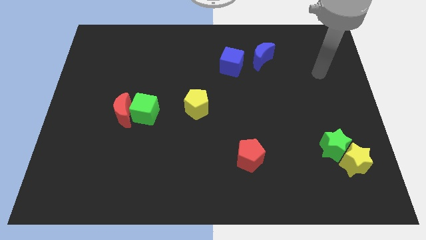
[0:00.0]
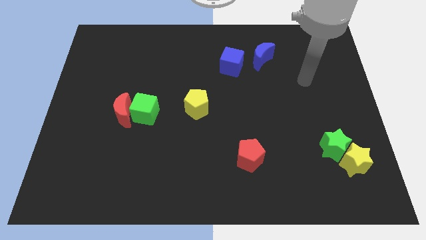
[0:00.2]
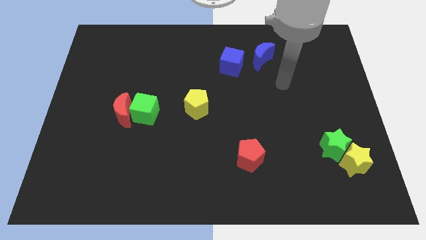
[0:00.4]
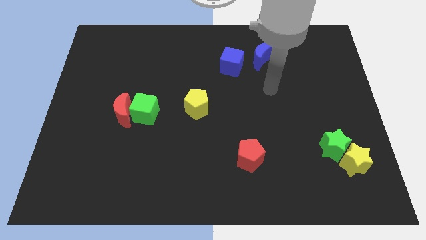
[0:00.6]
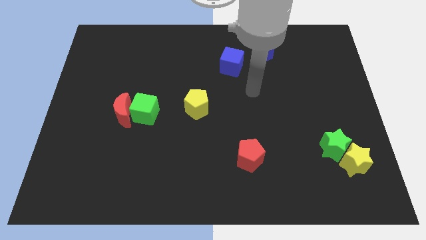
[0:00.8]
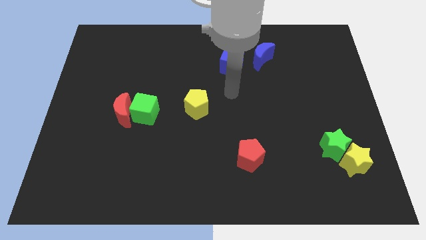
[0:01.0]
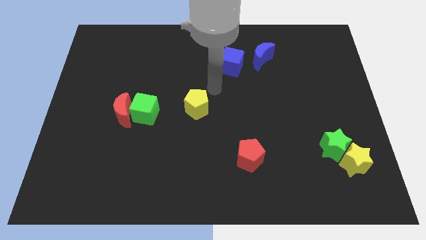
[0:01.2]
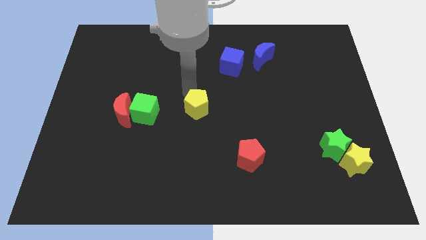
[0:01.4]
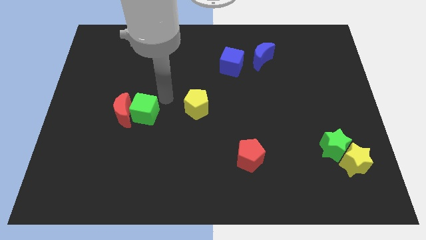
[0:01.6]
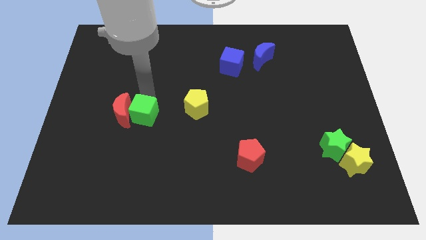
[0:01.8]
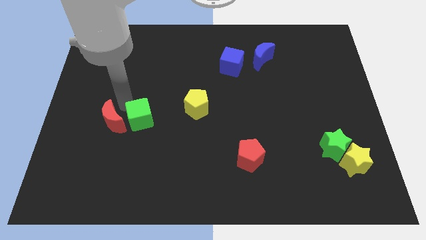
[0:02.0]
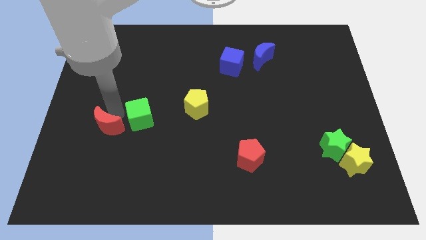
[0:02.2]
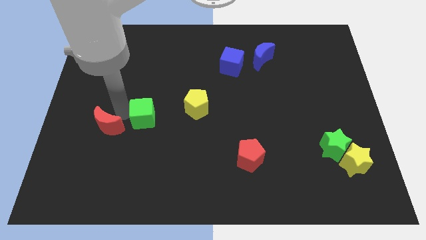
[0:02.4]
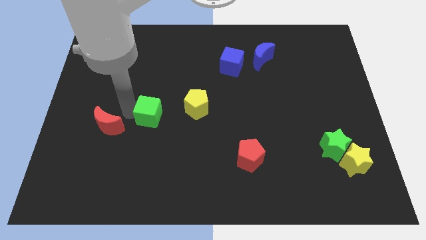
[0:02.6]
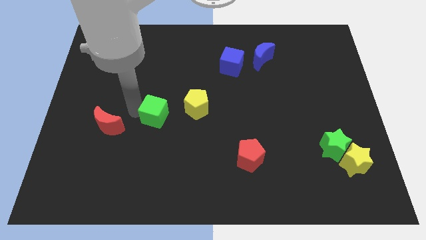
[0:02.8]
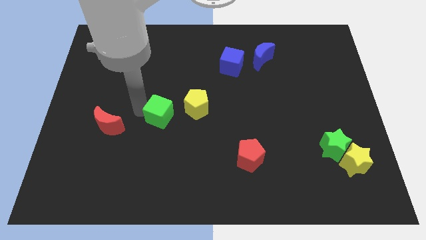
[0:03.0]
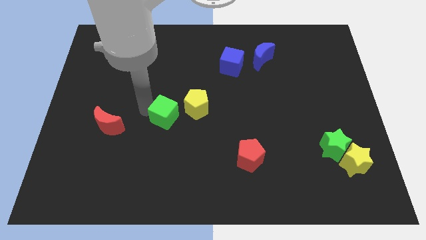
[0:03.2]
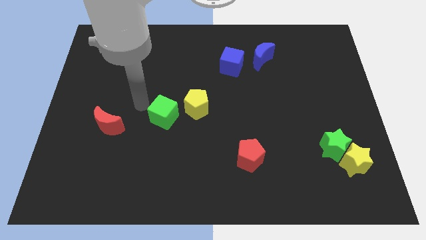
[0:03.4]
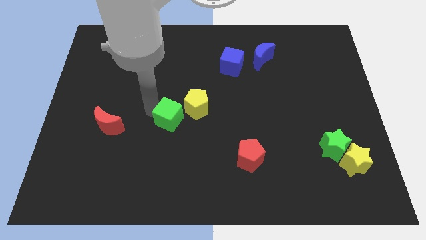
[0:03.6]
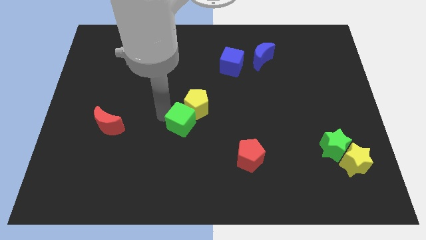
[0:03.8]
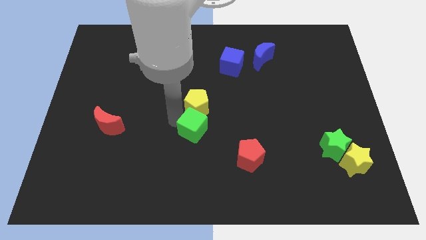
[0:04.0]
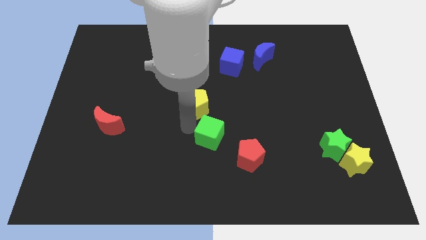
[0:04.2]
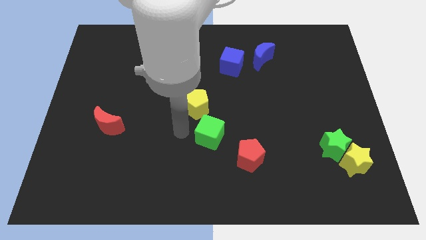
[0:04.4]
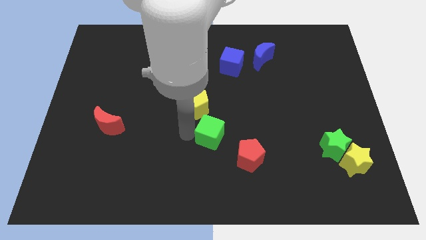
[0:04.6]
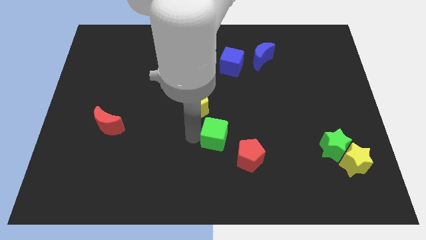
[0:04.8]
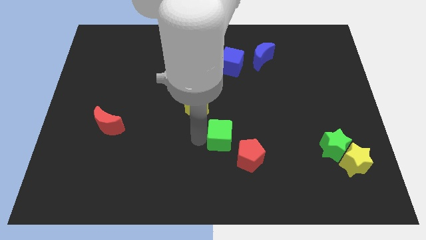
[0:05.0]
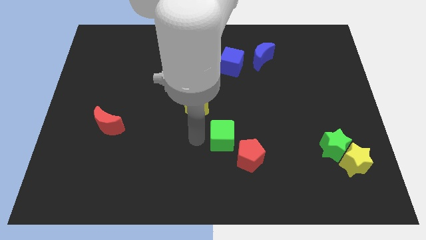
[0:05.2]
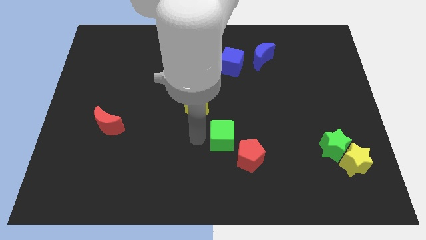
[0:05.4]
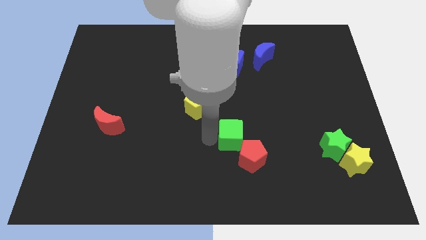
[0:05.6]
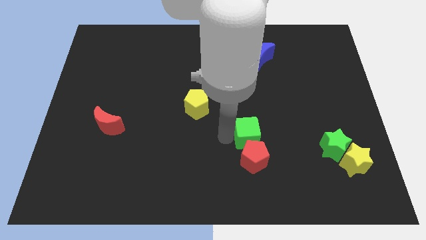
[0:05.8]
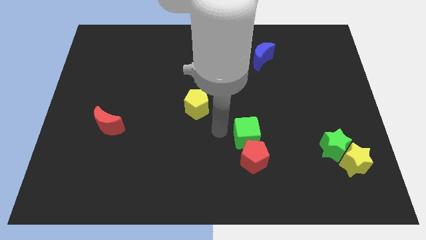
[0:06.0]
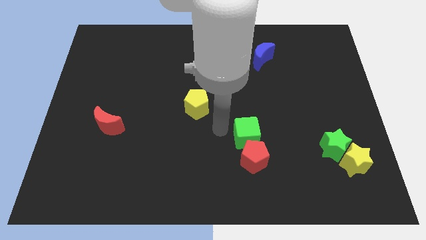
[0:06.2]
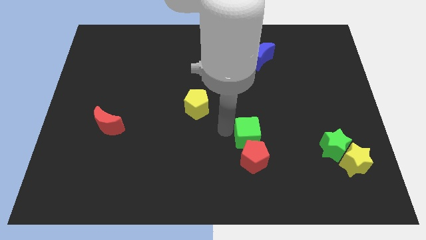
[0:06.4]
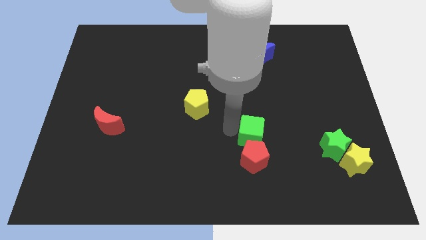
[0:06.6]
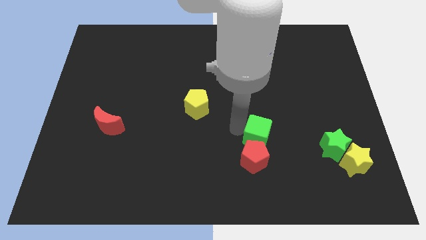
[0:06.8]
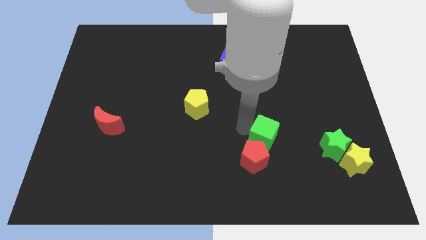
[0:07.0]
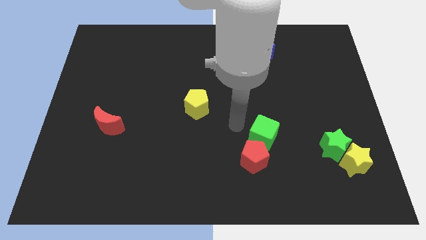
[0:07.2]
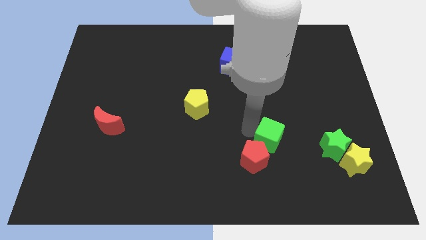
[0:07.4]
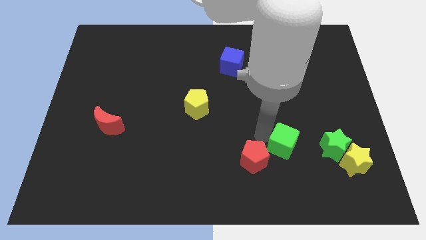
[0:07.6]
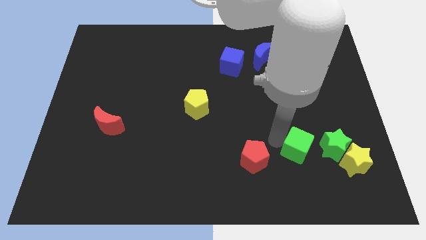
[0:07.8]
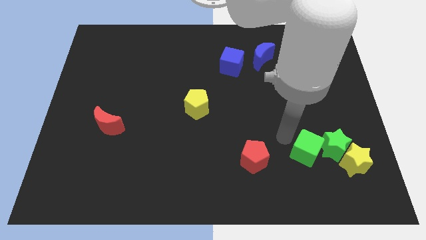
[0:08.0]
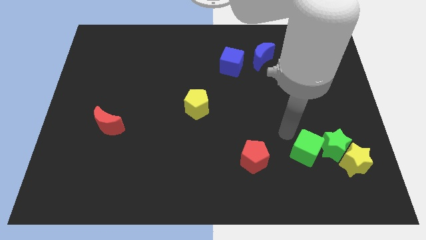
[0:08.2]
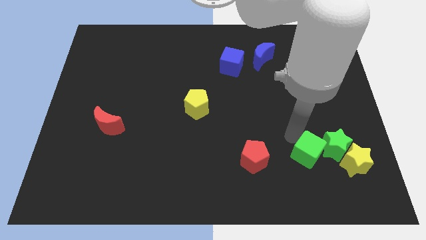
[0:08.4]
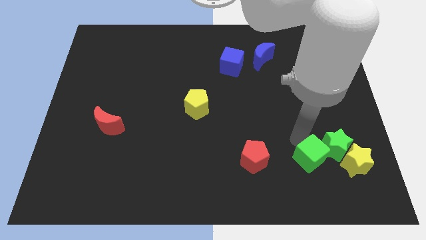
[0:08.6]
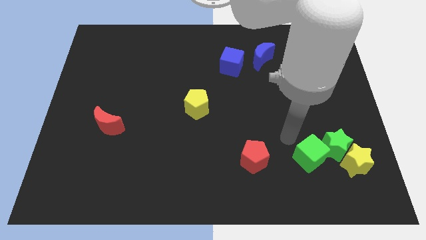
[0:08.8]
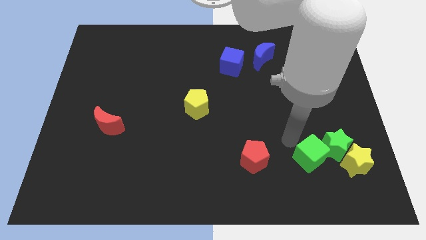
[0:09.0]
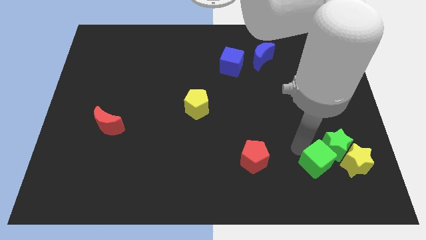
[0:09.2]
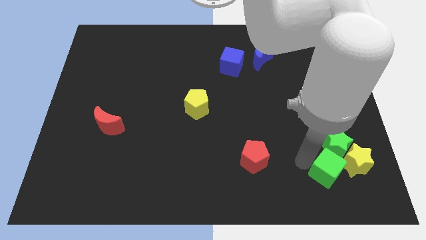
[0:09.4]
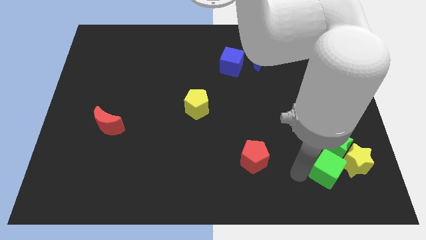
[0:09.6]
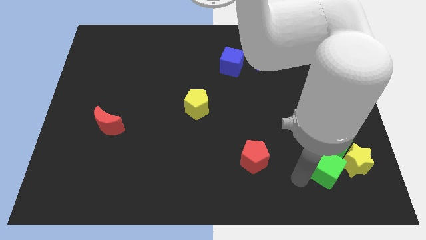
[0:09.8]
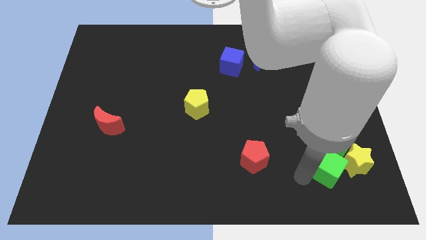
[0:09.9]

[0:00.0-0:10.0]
move the green cube close to the yellow star

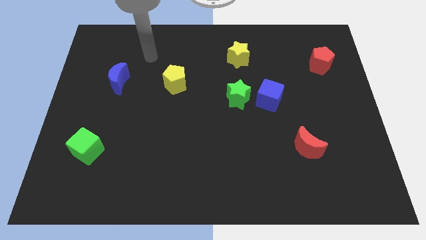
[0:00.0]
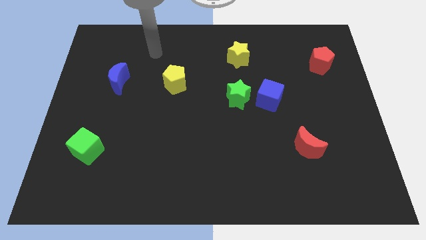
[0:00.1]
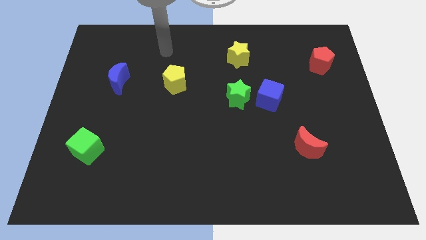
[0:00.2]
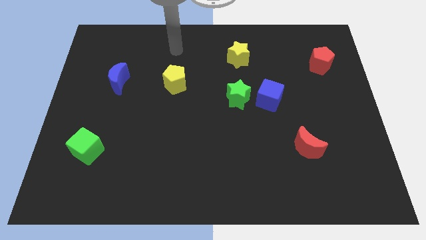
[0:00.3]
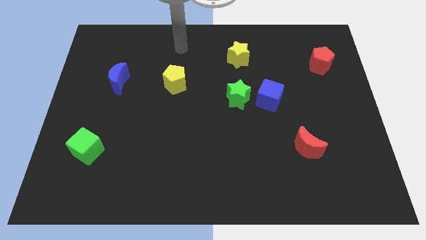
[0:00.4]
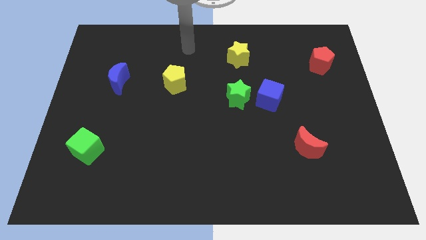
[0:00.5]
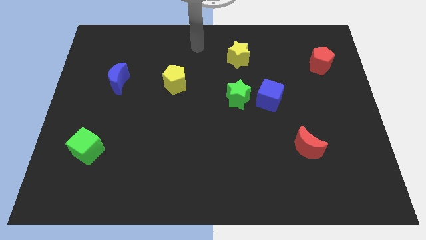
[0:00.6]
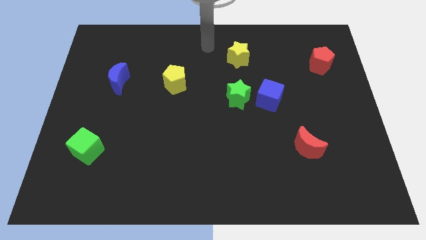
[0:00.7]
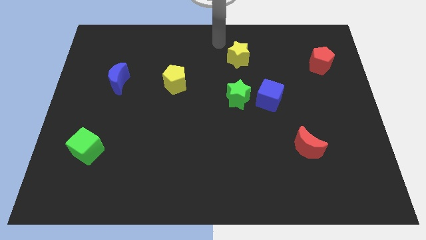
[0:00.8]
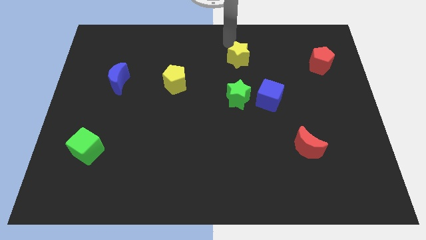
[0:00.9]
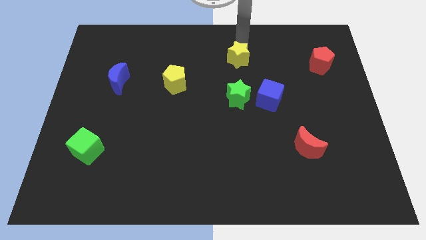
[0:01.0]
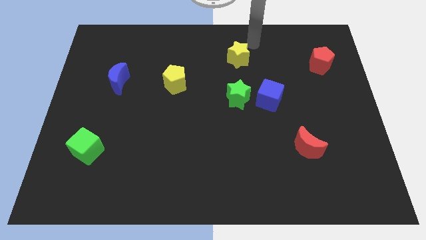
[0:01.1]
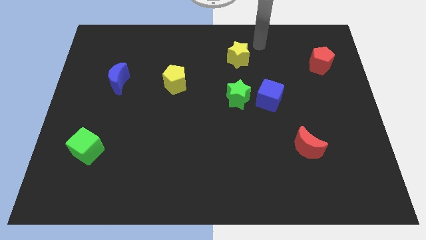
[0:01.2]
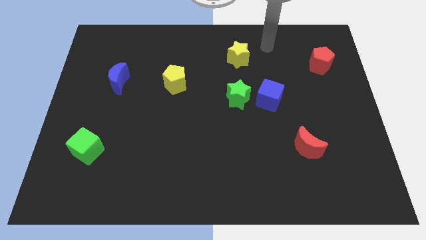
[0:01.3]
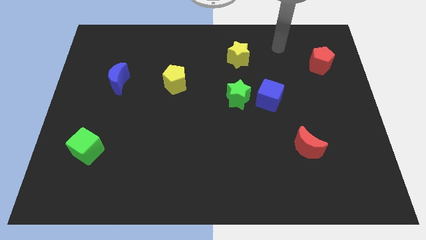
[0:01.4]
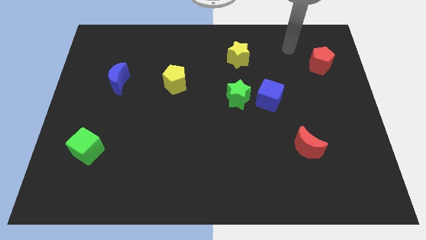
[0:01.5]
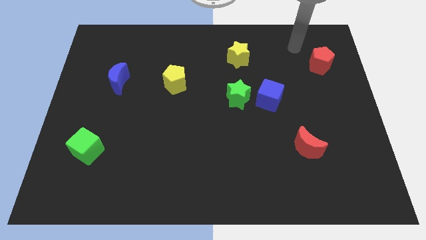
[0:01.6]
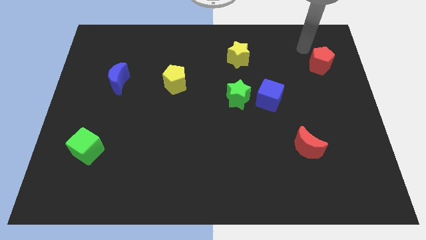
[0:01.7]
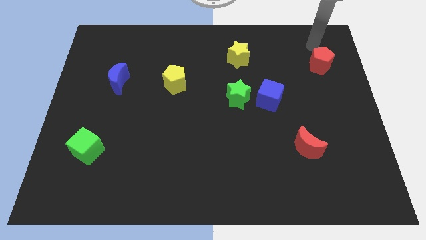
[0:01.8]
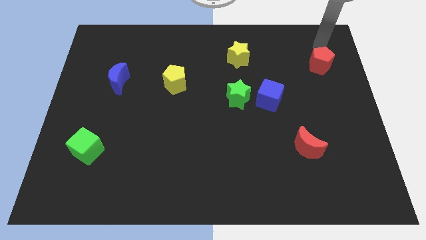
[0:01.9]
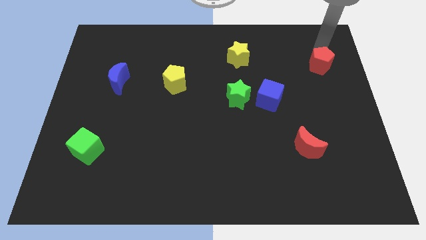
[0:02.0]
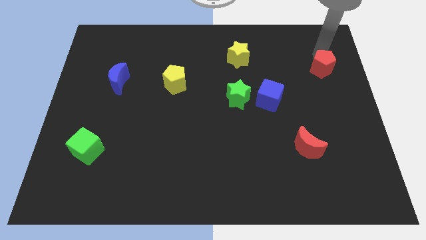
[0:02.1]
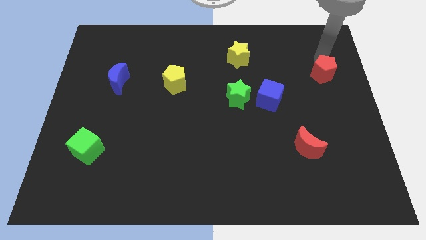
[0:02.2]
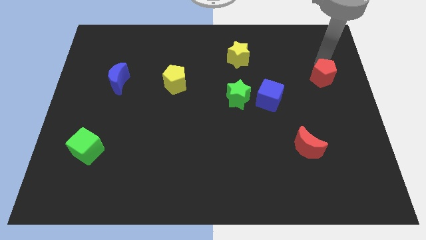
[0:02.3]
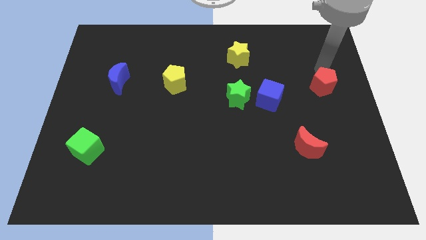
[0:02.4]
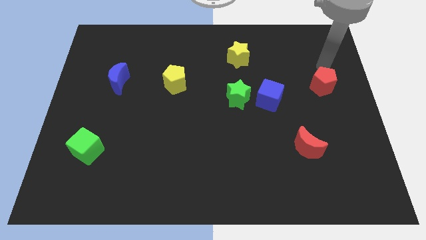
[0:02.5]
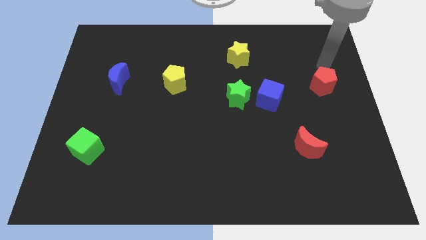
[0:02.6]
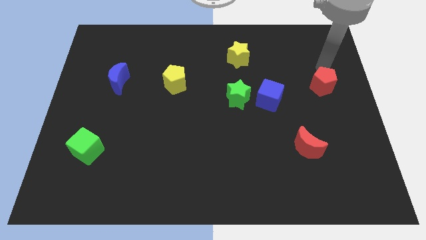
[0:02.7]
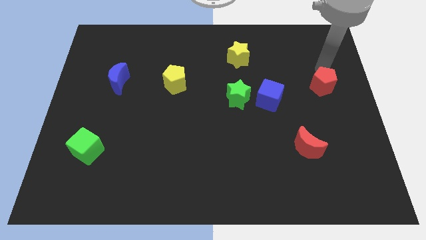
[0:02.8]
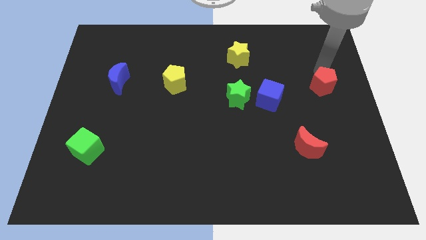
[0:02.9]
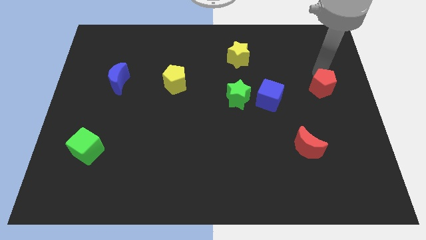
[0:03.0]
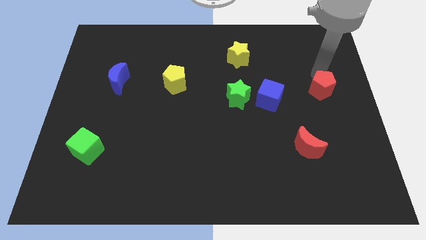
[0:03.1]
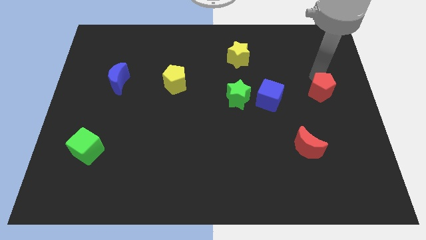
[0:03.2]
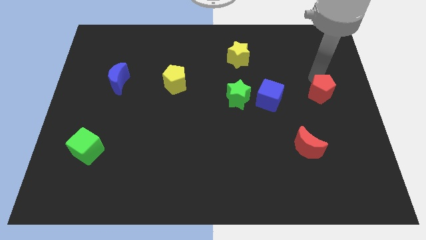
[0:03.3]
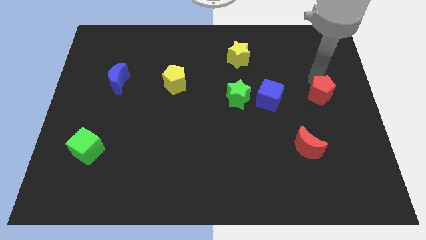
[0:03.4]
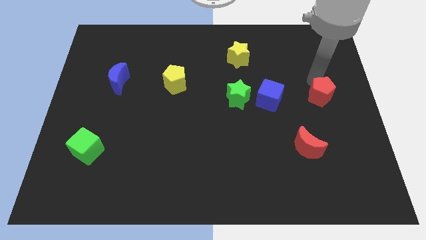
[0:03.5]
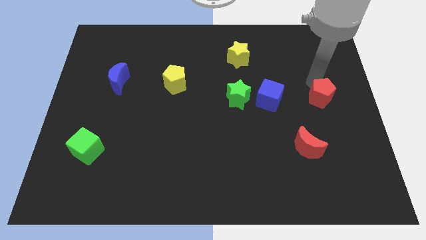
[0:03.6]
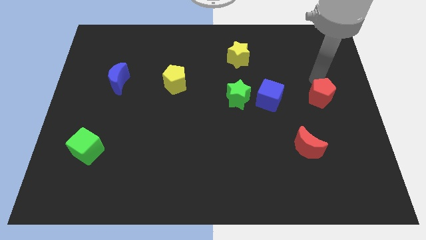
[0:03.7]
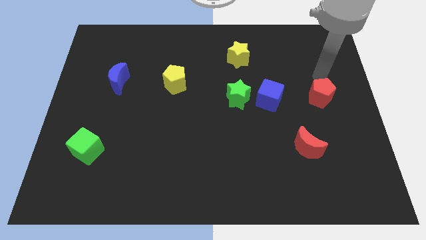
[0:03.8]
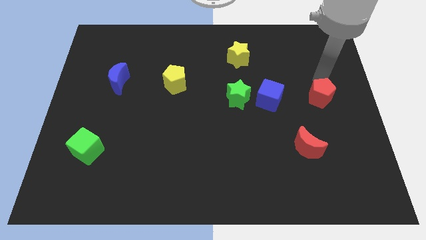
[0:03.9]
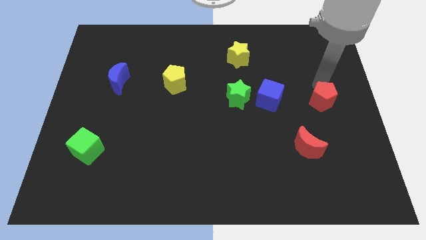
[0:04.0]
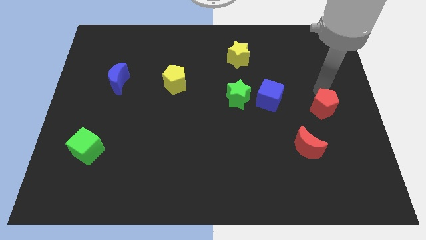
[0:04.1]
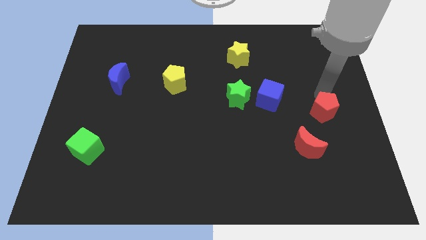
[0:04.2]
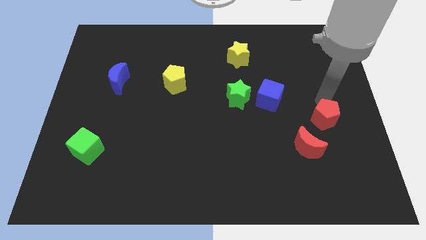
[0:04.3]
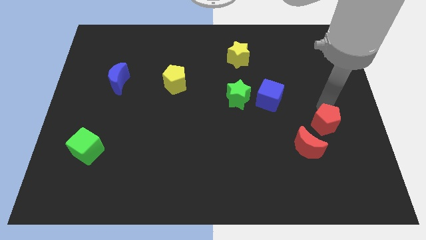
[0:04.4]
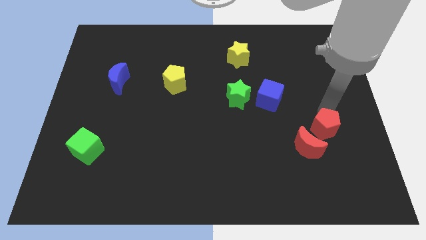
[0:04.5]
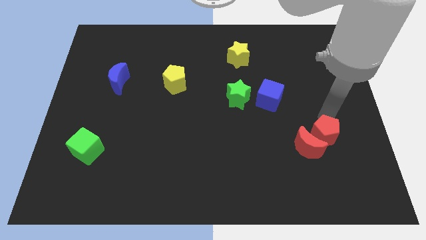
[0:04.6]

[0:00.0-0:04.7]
put the red pentagon towards the red moon
